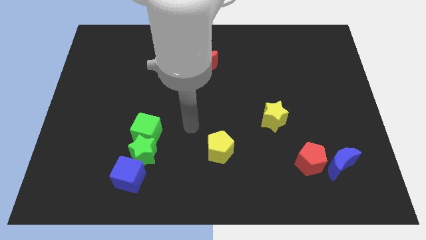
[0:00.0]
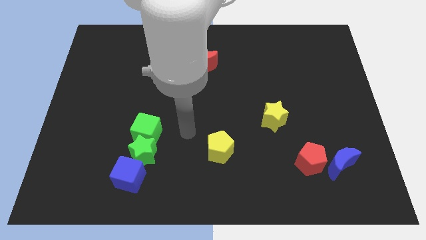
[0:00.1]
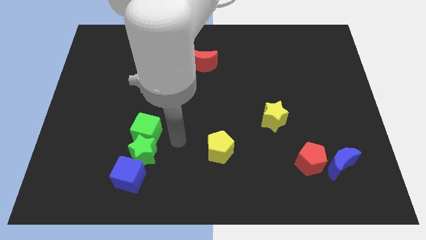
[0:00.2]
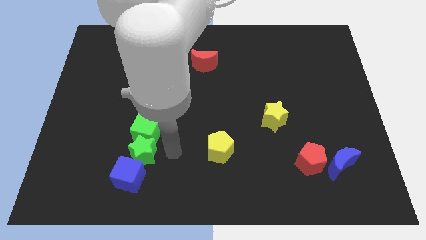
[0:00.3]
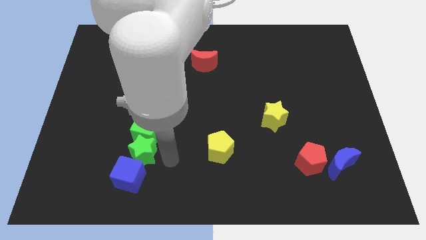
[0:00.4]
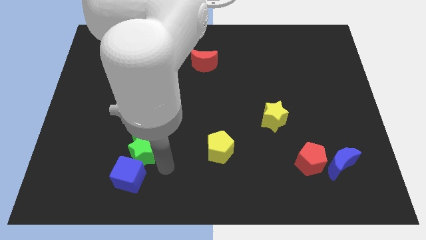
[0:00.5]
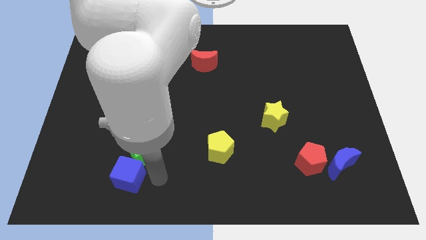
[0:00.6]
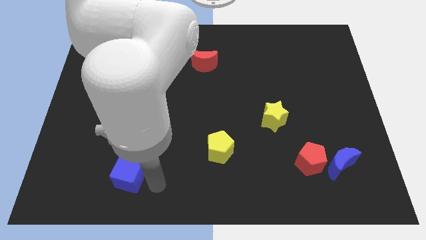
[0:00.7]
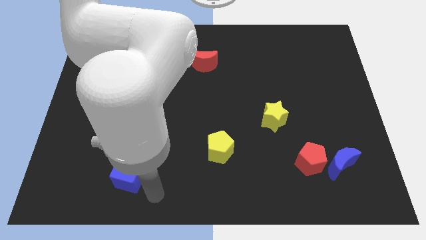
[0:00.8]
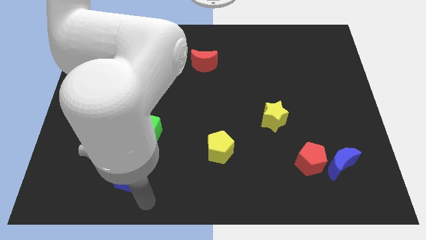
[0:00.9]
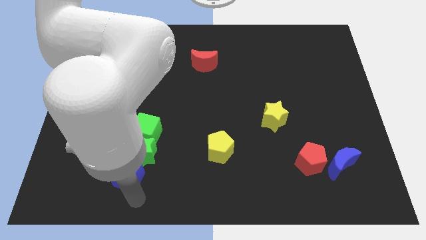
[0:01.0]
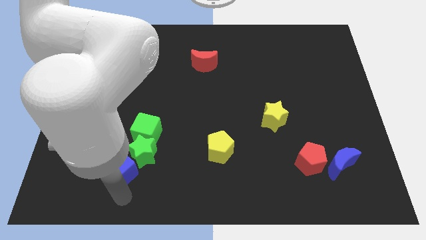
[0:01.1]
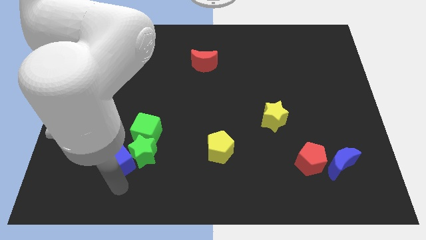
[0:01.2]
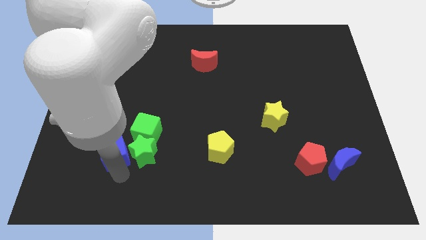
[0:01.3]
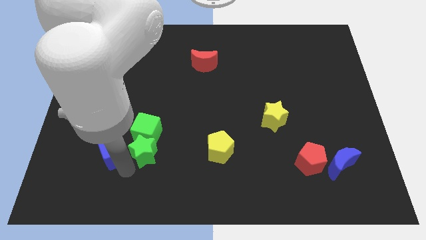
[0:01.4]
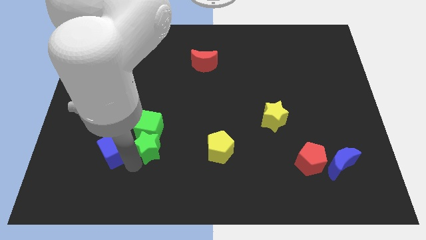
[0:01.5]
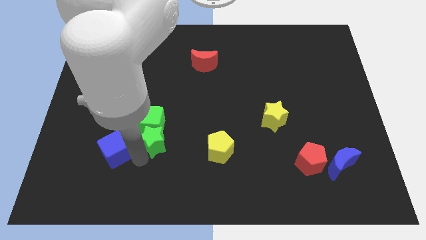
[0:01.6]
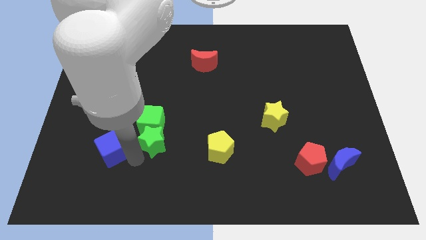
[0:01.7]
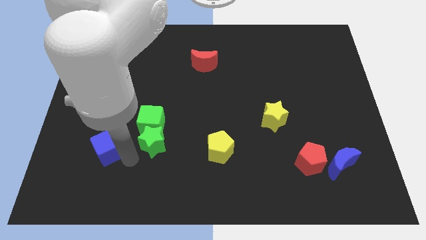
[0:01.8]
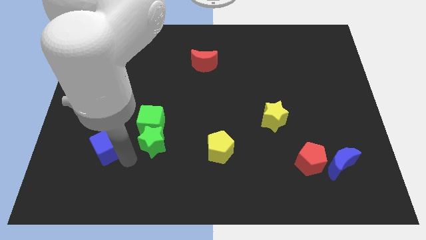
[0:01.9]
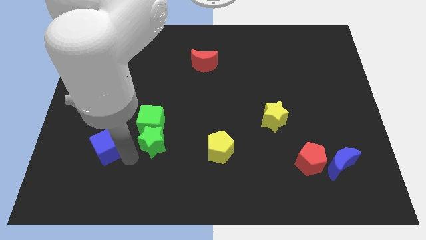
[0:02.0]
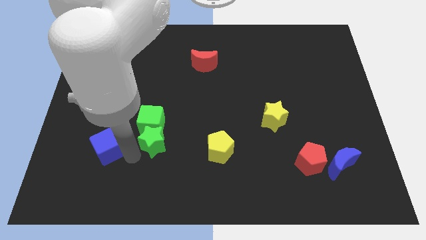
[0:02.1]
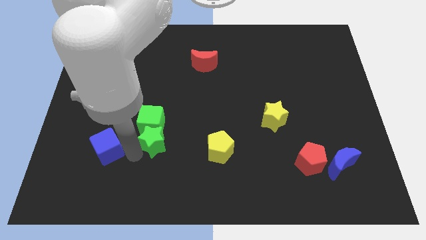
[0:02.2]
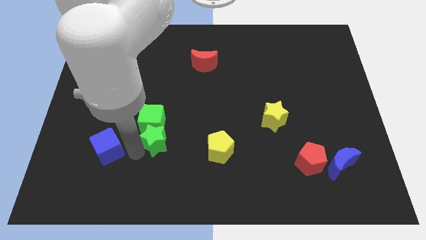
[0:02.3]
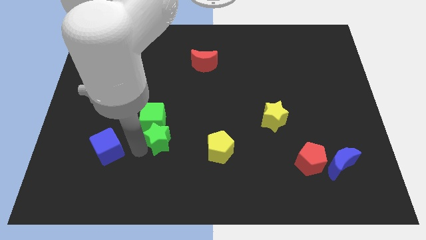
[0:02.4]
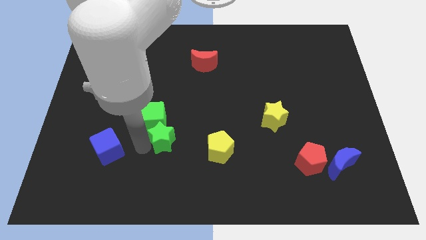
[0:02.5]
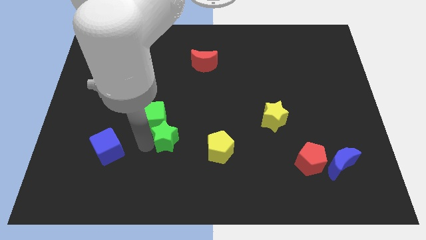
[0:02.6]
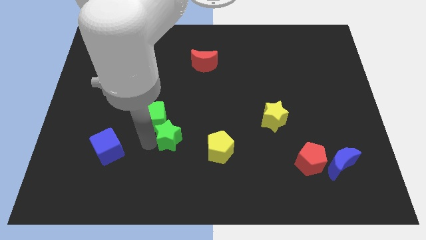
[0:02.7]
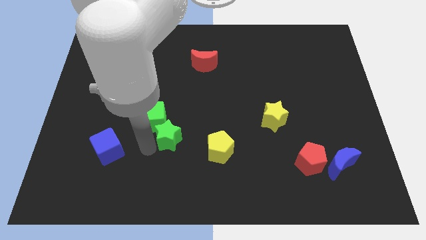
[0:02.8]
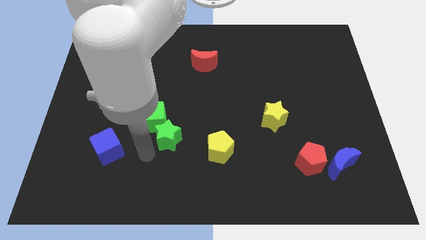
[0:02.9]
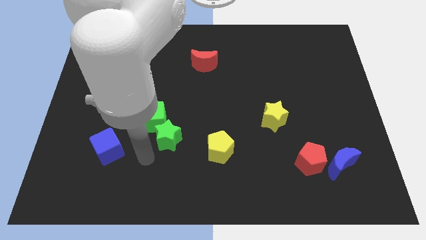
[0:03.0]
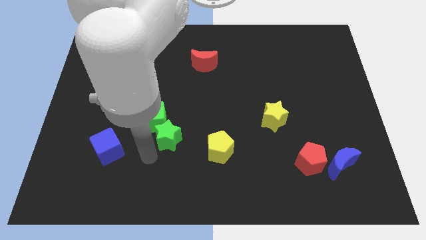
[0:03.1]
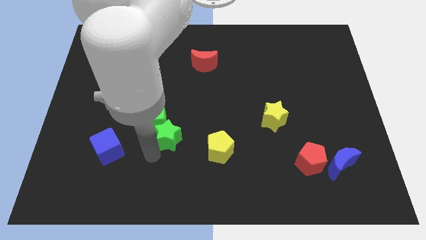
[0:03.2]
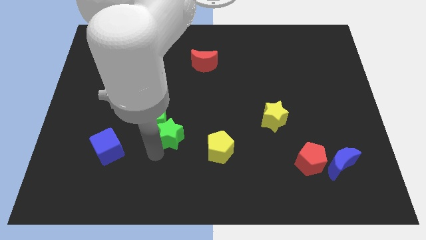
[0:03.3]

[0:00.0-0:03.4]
push the green star upwards and then to the right somewhat

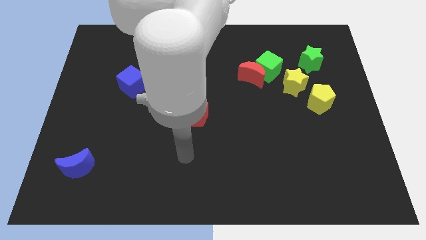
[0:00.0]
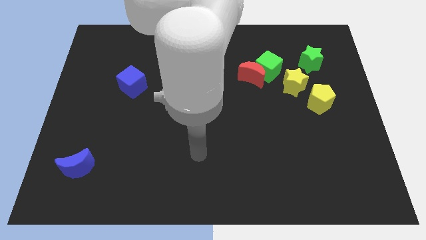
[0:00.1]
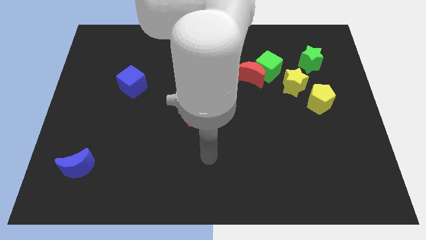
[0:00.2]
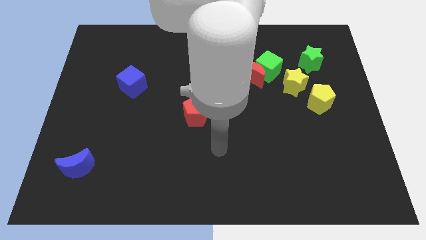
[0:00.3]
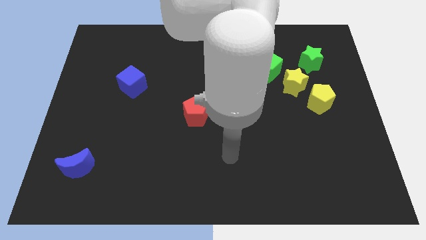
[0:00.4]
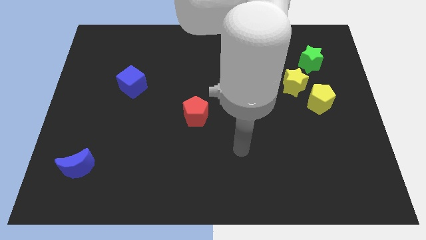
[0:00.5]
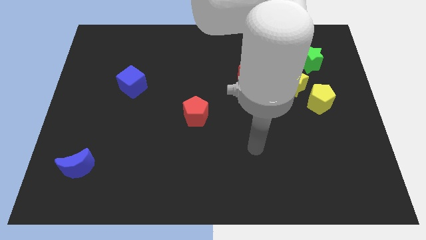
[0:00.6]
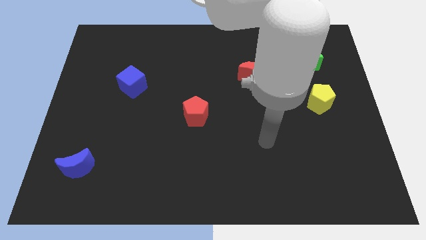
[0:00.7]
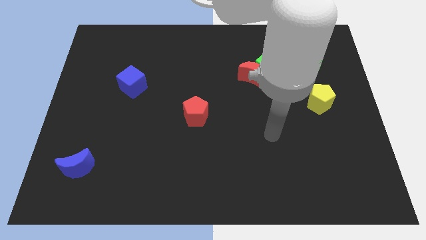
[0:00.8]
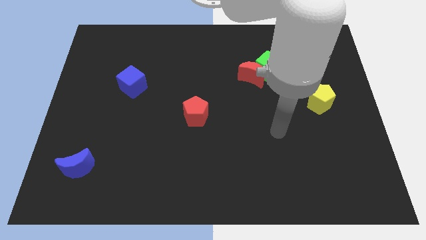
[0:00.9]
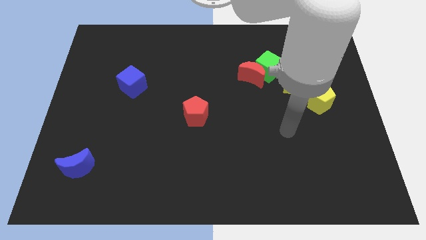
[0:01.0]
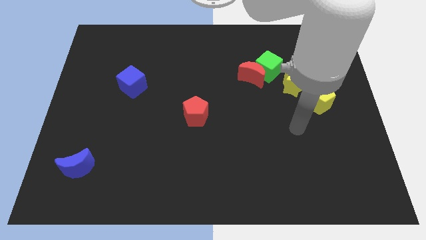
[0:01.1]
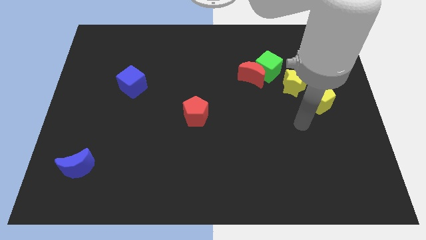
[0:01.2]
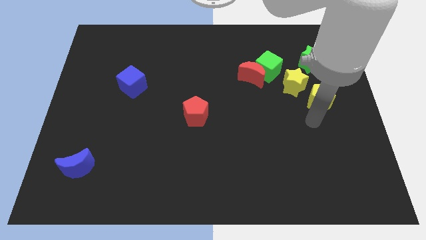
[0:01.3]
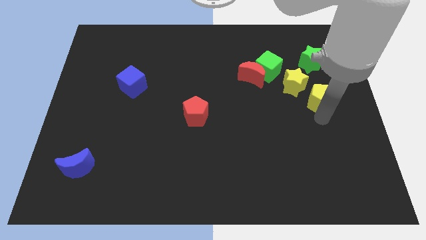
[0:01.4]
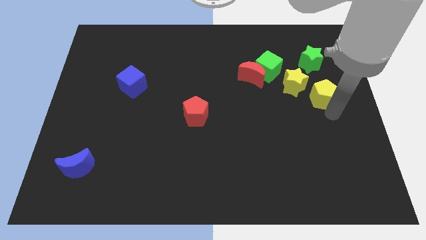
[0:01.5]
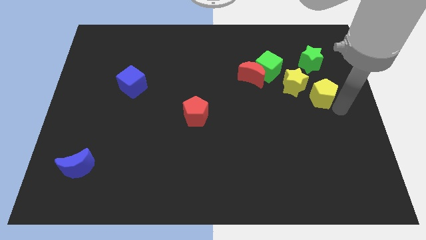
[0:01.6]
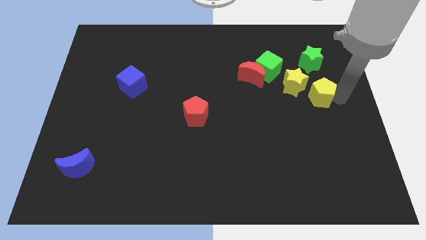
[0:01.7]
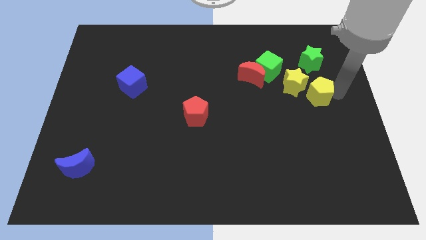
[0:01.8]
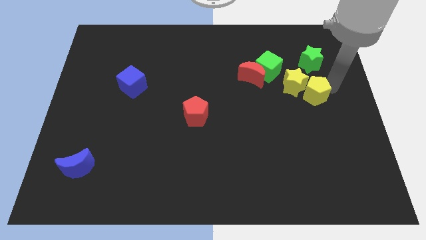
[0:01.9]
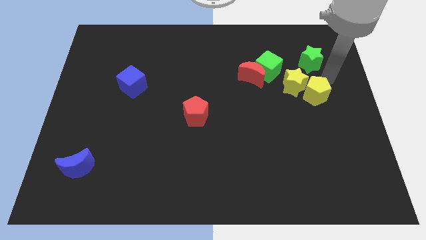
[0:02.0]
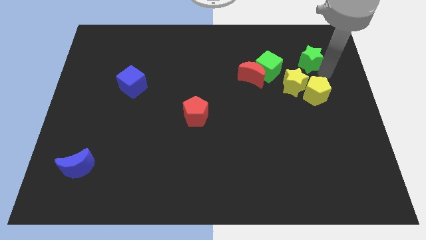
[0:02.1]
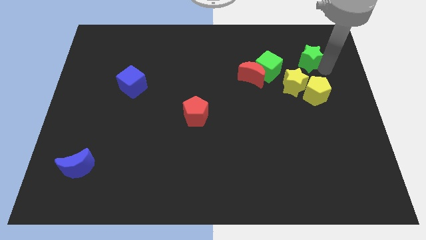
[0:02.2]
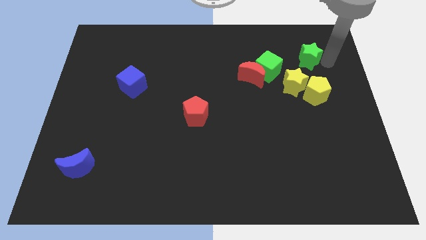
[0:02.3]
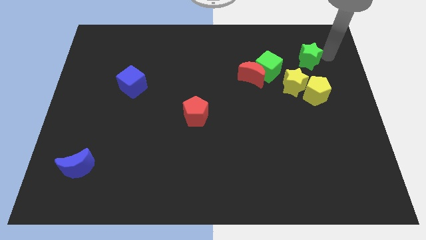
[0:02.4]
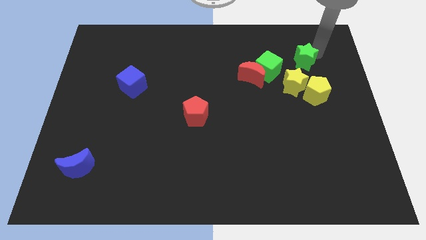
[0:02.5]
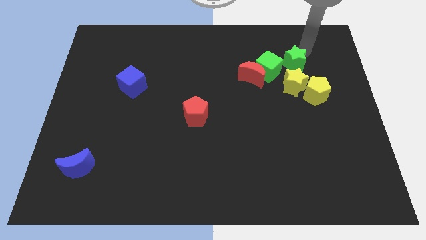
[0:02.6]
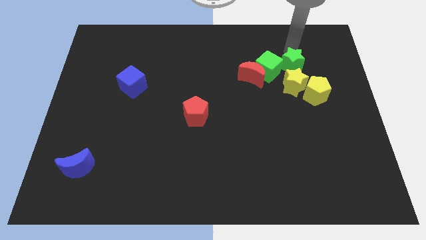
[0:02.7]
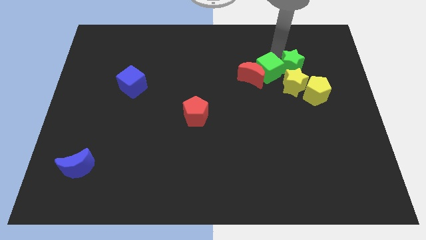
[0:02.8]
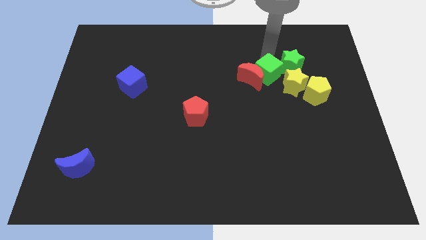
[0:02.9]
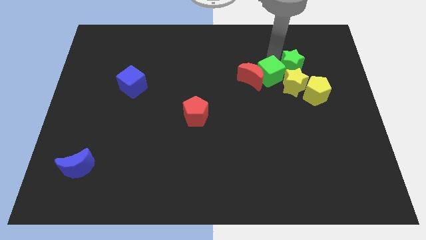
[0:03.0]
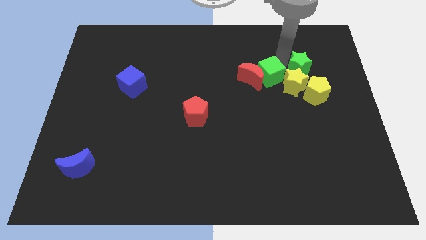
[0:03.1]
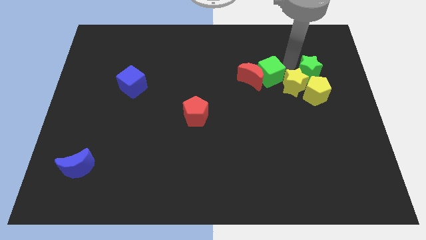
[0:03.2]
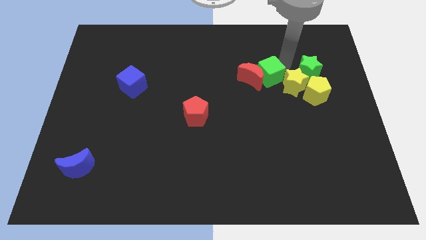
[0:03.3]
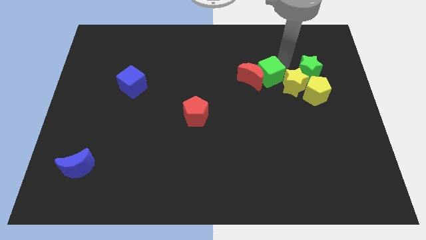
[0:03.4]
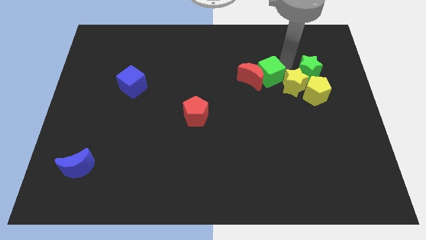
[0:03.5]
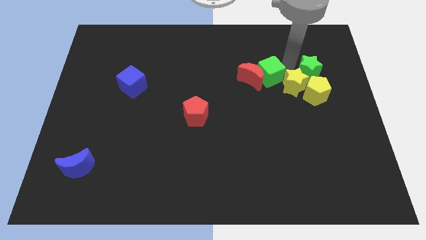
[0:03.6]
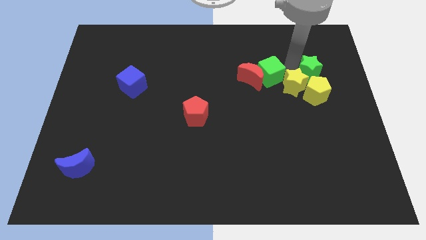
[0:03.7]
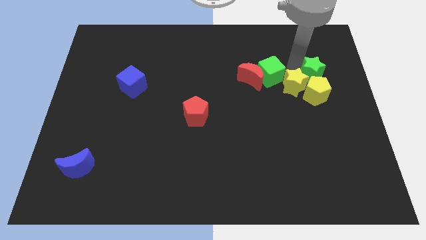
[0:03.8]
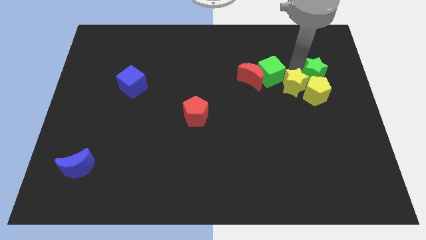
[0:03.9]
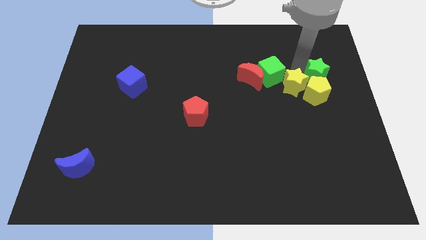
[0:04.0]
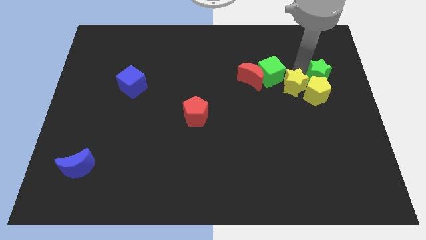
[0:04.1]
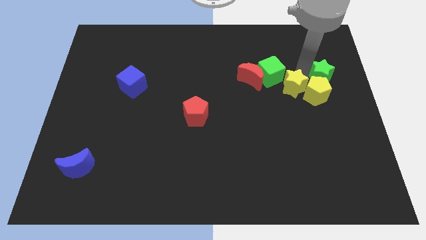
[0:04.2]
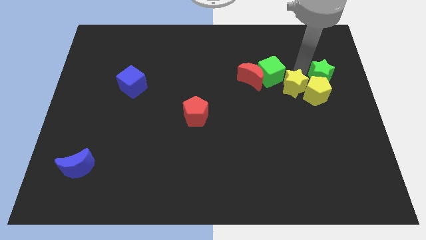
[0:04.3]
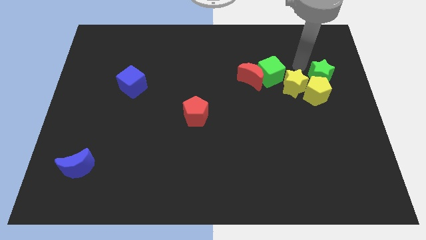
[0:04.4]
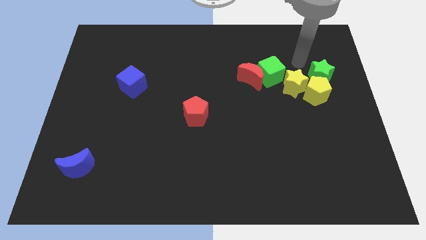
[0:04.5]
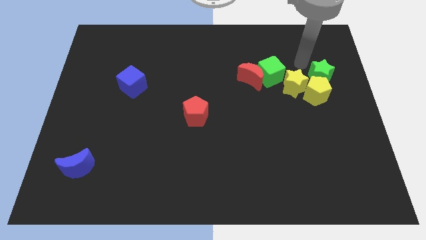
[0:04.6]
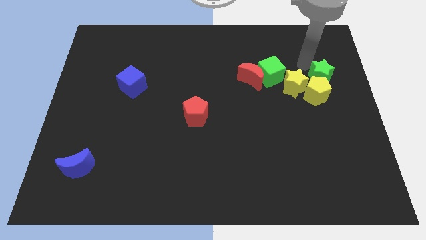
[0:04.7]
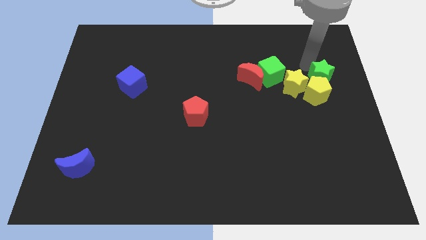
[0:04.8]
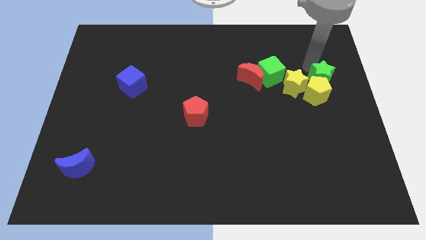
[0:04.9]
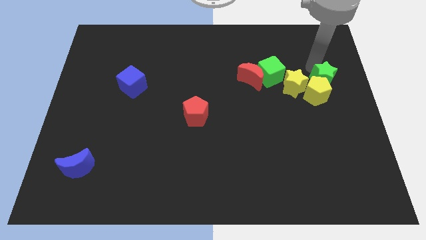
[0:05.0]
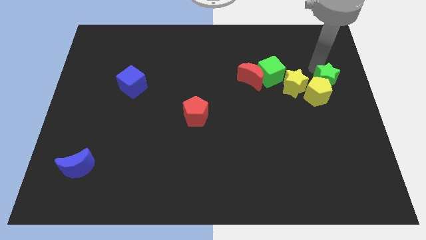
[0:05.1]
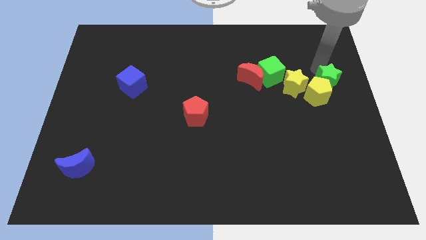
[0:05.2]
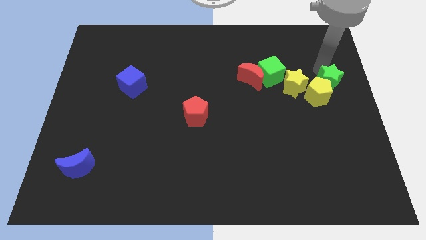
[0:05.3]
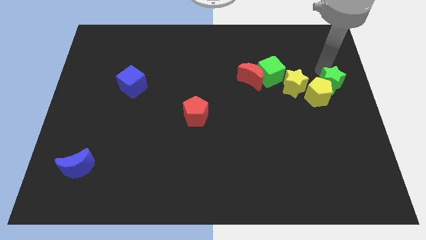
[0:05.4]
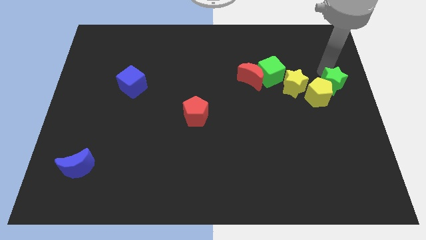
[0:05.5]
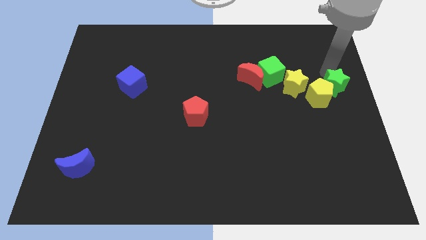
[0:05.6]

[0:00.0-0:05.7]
move the green star downwards a little bit
